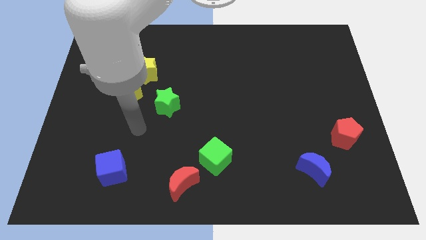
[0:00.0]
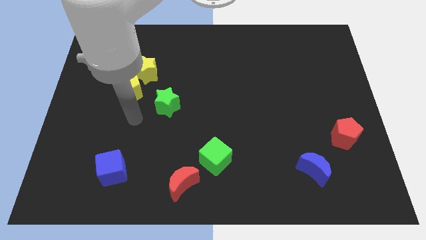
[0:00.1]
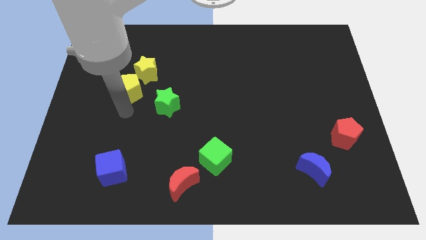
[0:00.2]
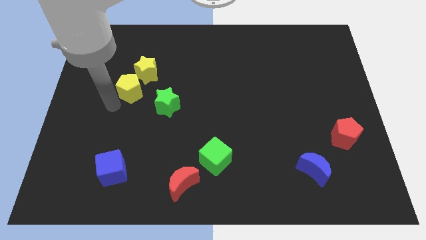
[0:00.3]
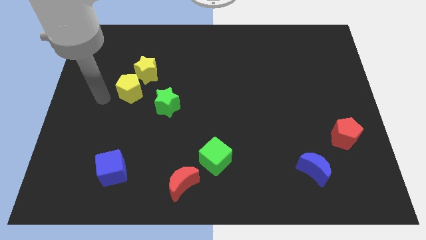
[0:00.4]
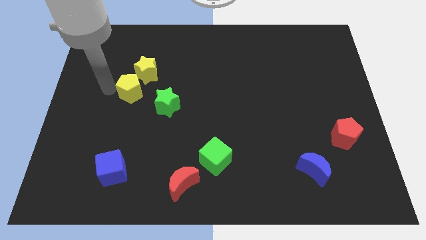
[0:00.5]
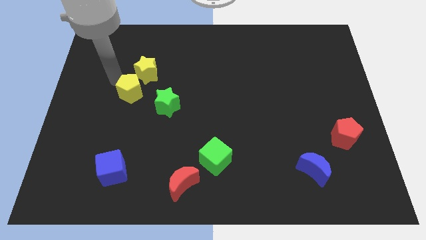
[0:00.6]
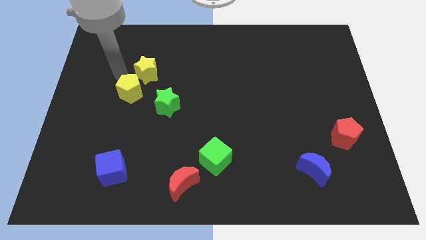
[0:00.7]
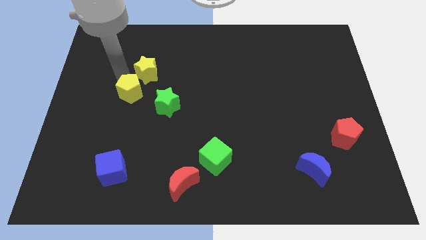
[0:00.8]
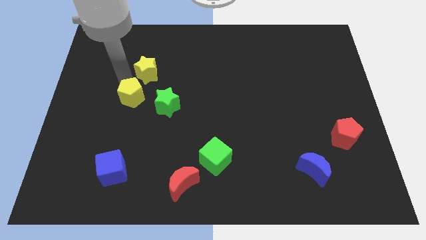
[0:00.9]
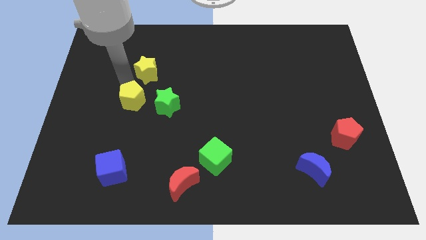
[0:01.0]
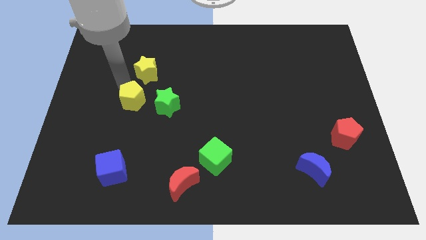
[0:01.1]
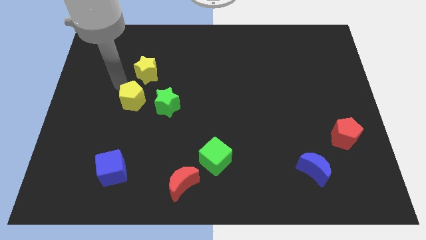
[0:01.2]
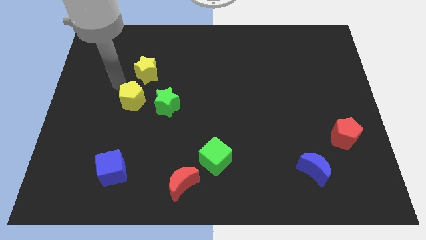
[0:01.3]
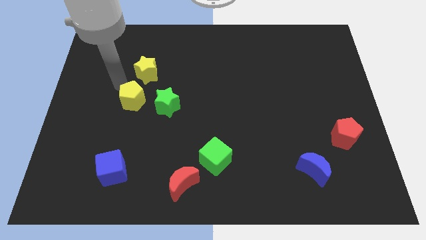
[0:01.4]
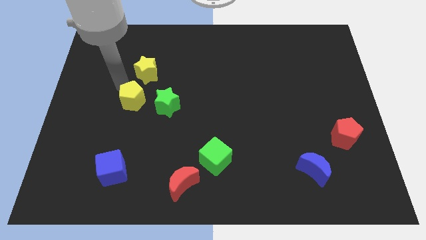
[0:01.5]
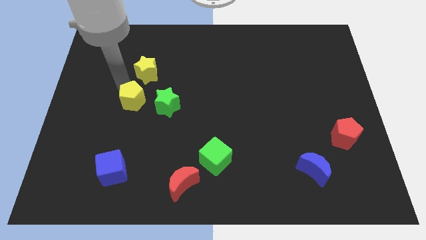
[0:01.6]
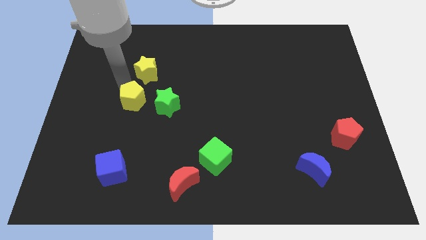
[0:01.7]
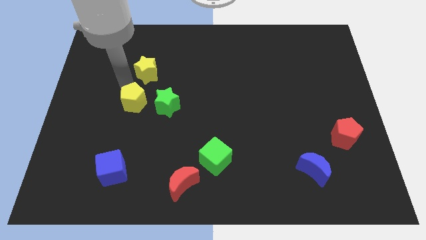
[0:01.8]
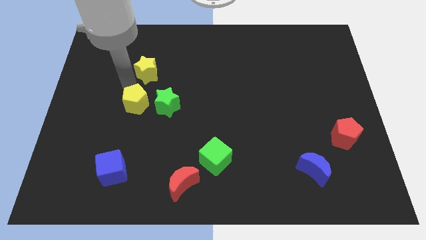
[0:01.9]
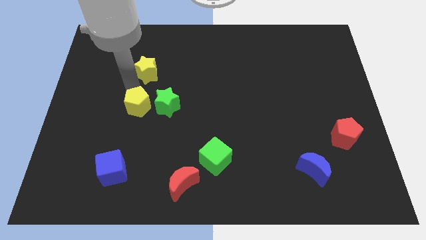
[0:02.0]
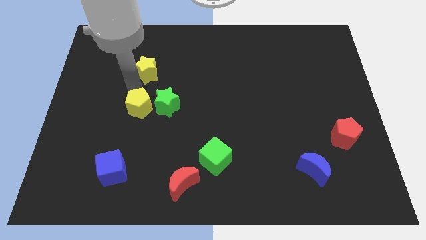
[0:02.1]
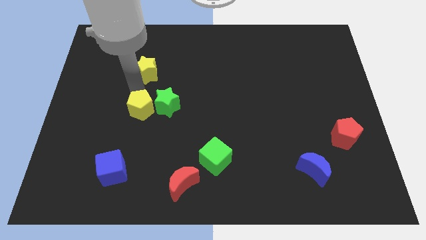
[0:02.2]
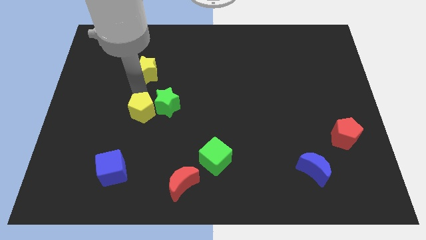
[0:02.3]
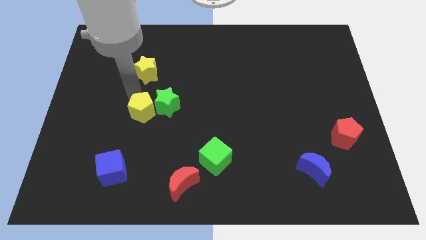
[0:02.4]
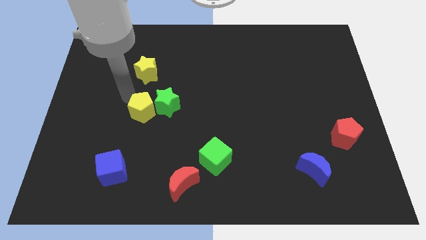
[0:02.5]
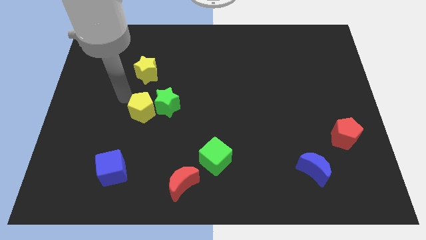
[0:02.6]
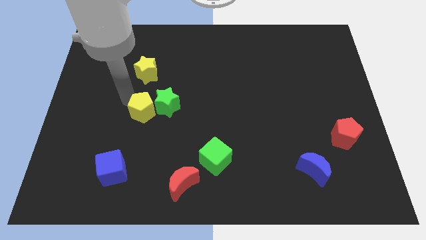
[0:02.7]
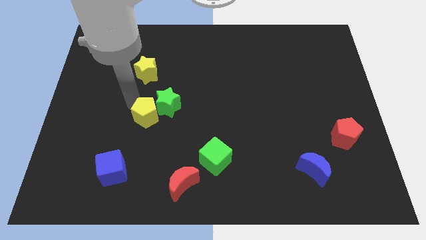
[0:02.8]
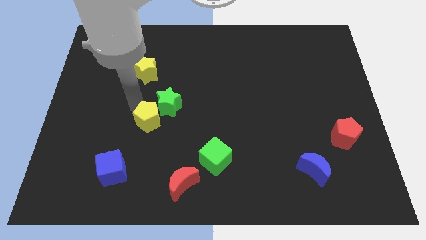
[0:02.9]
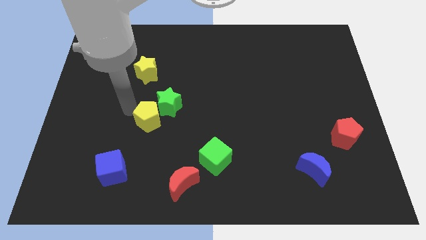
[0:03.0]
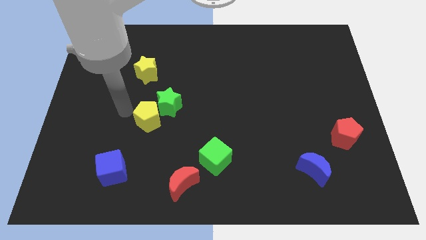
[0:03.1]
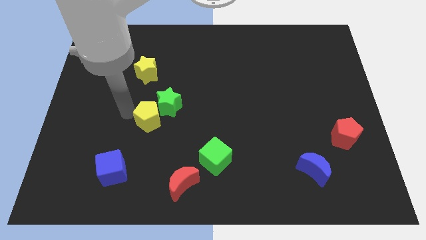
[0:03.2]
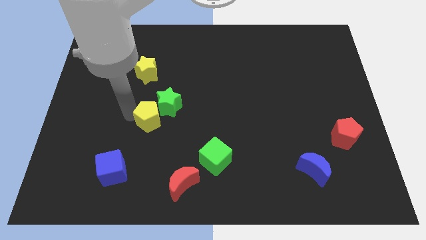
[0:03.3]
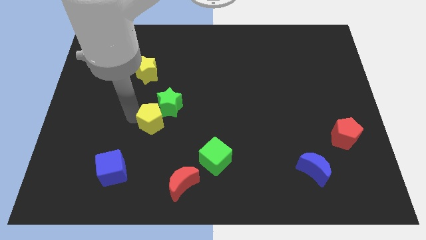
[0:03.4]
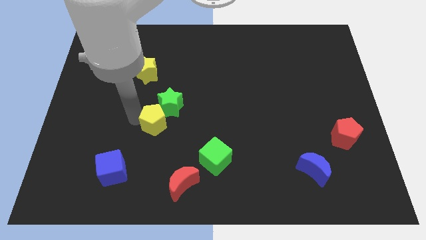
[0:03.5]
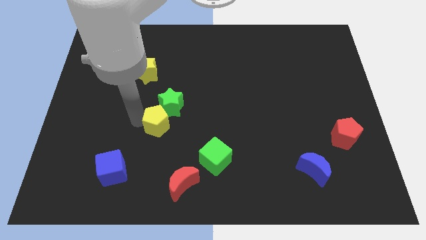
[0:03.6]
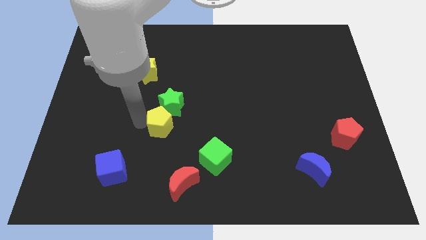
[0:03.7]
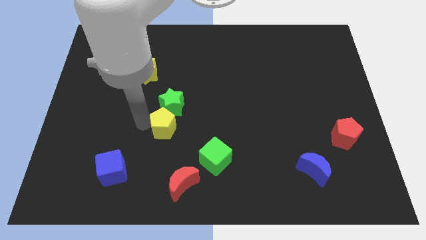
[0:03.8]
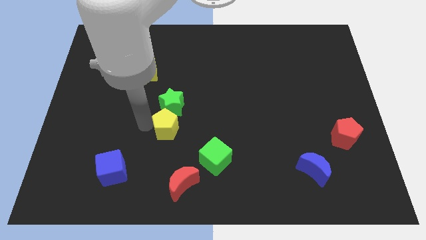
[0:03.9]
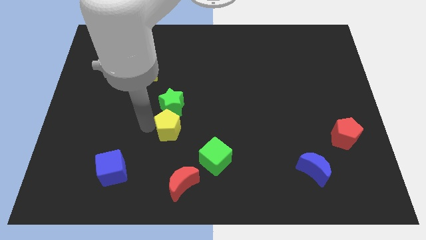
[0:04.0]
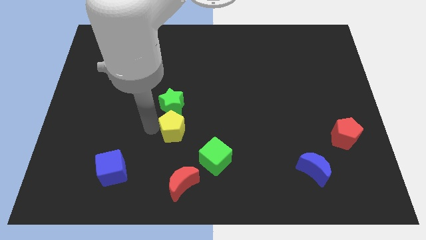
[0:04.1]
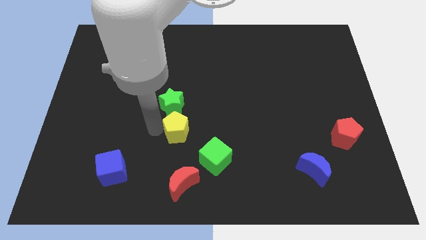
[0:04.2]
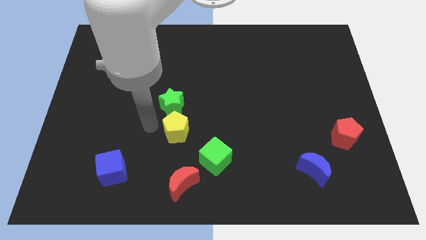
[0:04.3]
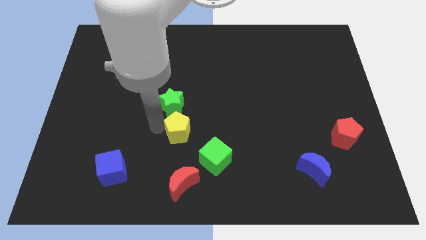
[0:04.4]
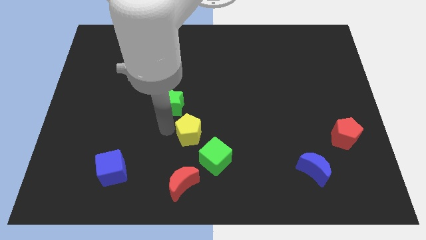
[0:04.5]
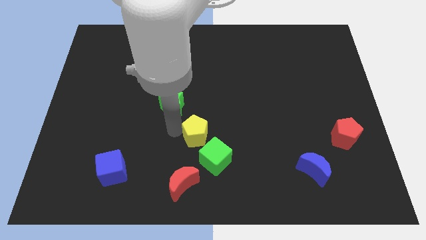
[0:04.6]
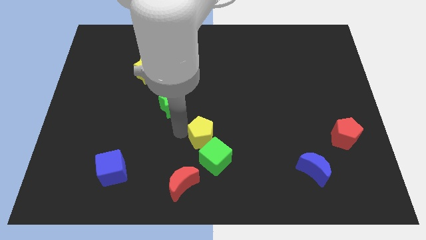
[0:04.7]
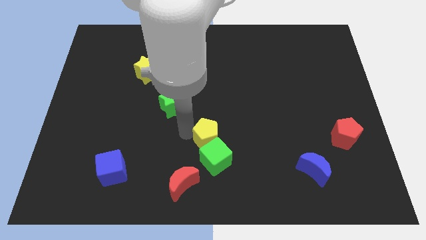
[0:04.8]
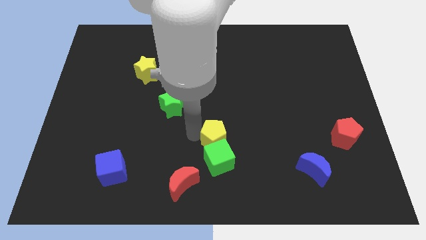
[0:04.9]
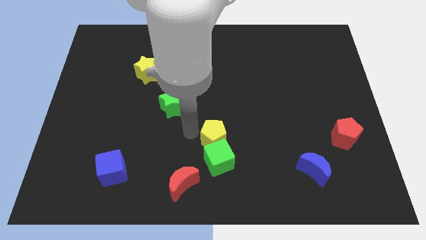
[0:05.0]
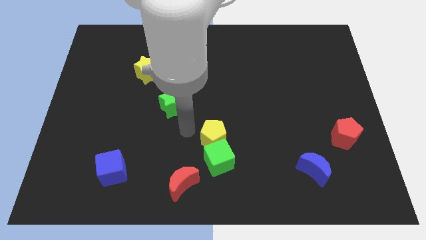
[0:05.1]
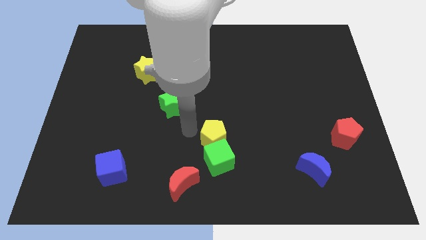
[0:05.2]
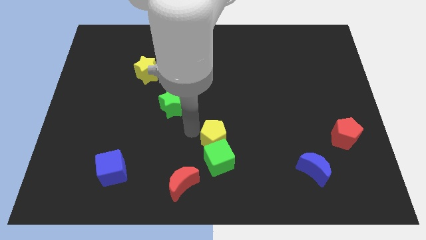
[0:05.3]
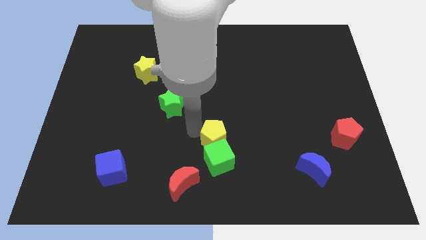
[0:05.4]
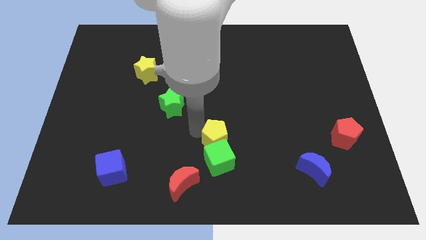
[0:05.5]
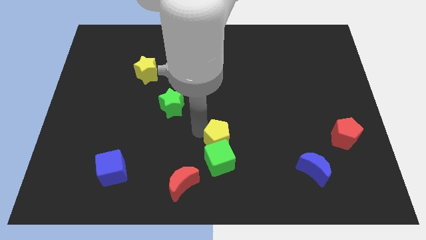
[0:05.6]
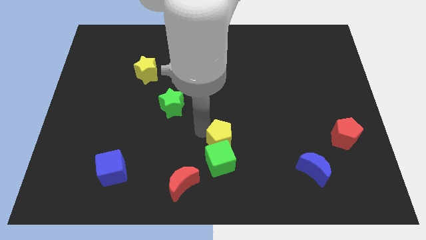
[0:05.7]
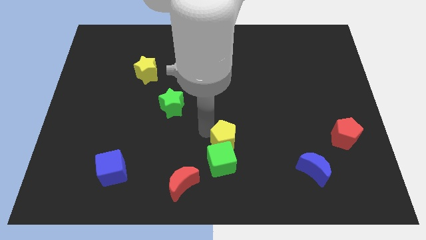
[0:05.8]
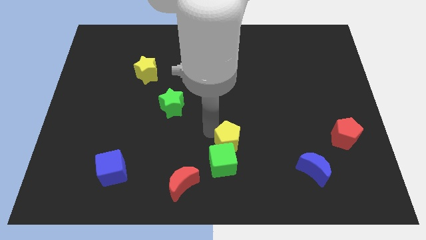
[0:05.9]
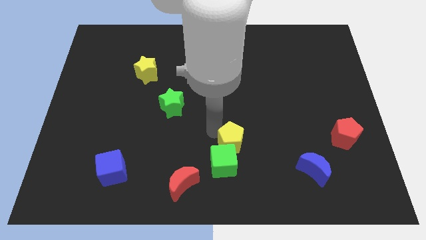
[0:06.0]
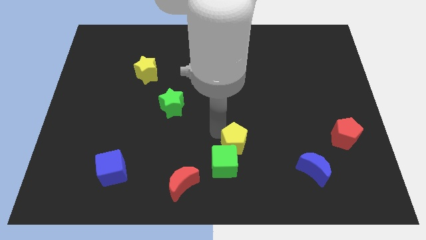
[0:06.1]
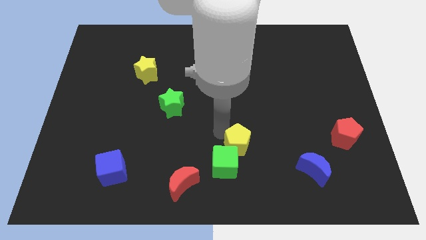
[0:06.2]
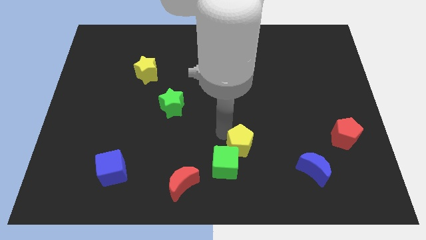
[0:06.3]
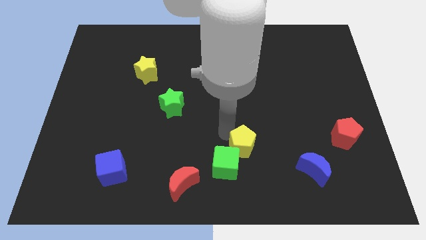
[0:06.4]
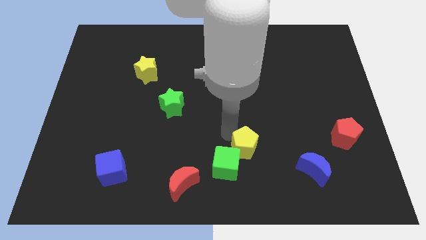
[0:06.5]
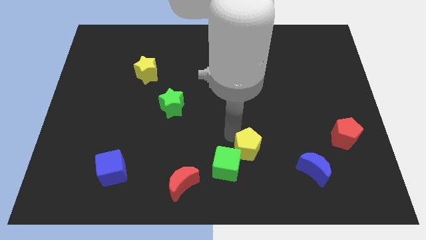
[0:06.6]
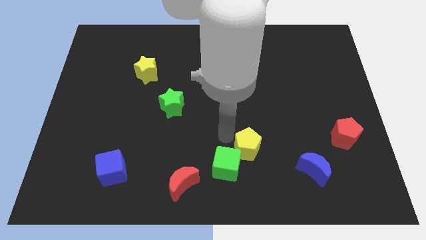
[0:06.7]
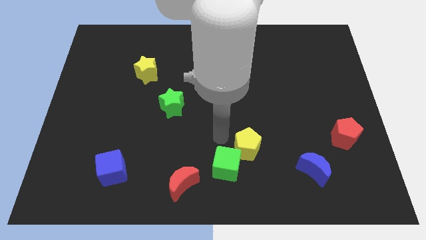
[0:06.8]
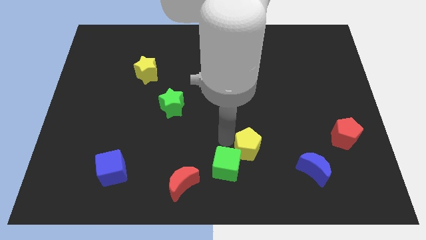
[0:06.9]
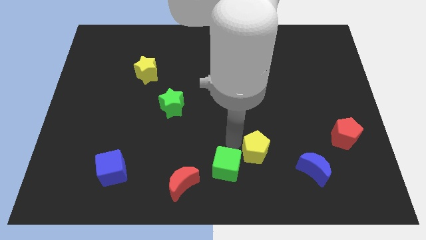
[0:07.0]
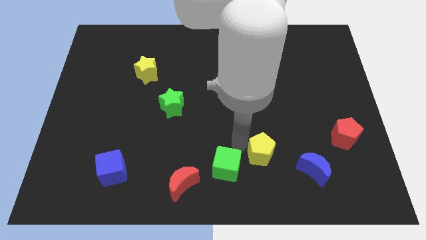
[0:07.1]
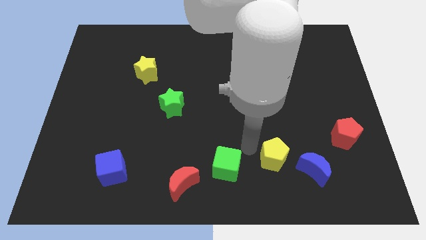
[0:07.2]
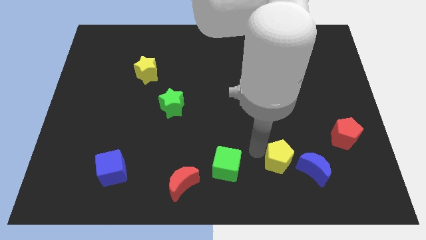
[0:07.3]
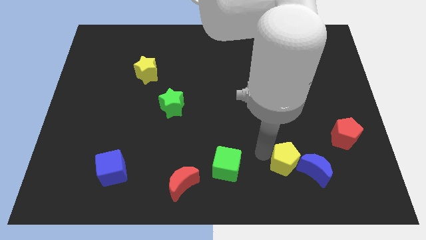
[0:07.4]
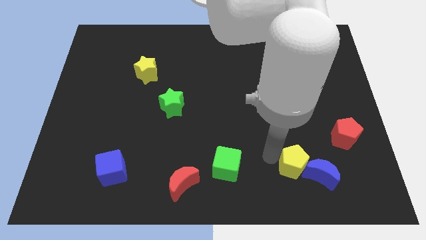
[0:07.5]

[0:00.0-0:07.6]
move the yellow pentagon to the blue moon
